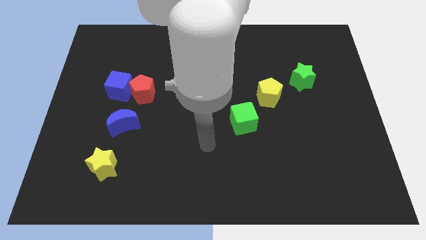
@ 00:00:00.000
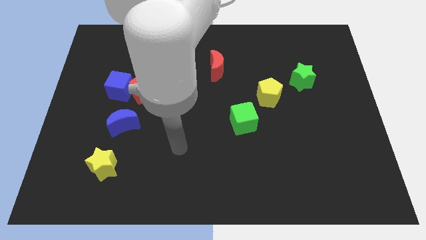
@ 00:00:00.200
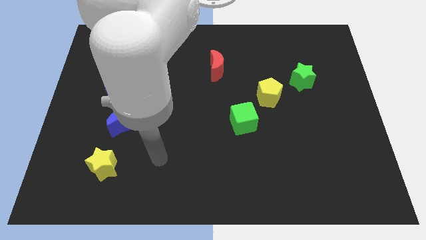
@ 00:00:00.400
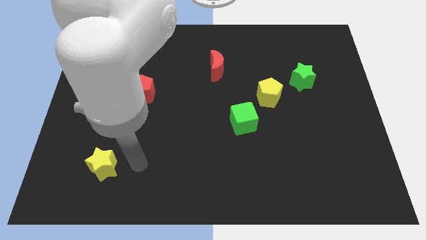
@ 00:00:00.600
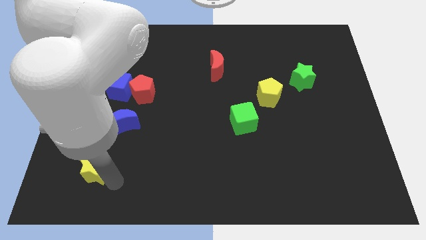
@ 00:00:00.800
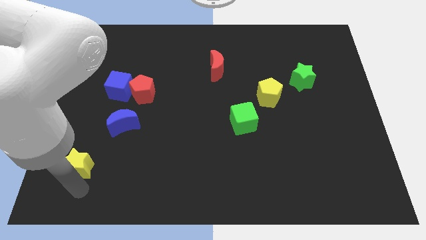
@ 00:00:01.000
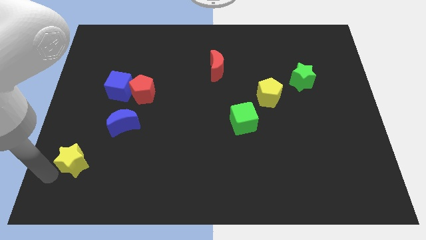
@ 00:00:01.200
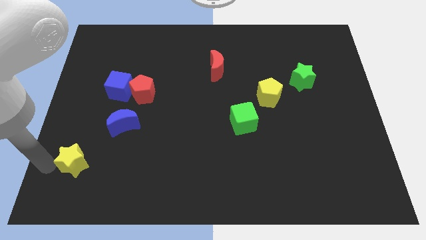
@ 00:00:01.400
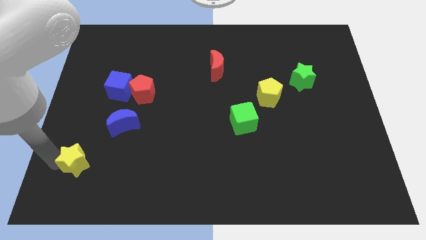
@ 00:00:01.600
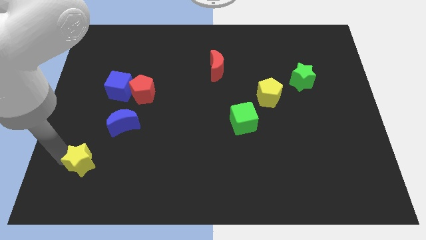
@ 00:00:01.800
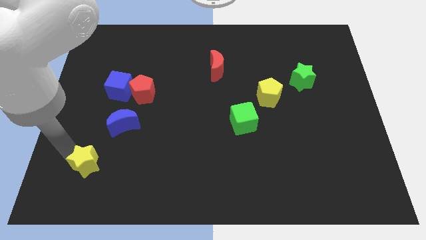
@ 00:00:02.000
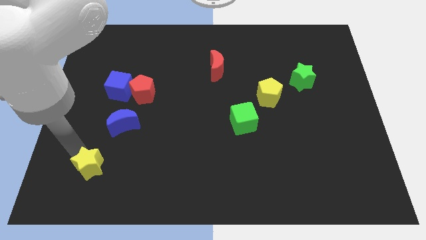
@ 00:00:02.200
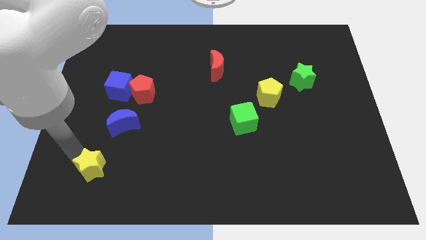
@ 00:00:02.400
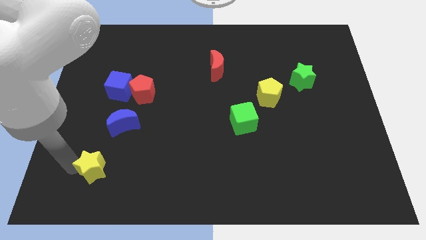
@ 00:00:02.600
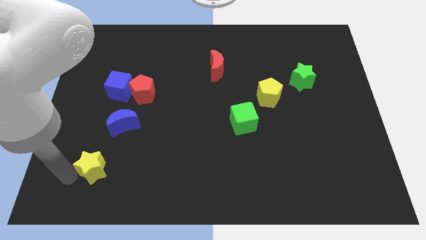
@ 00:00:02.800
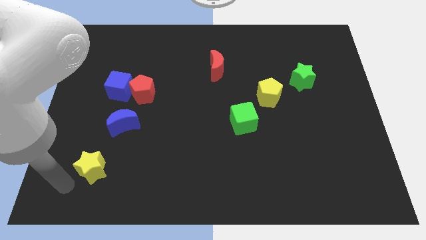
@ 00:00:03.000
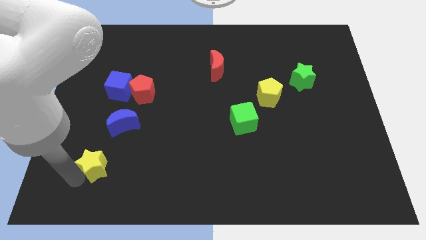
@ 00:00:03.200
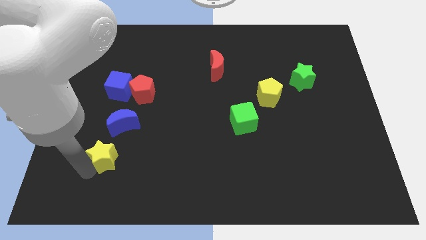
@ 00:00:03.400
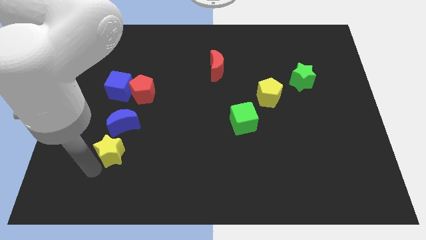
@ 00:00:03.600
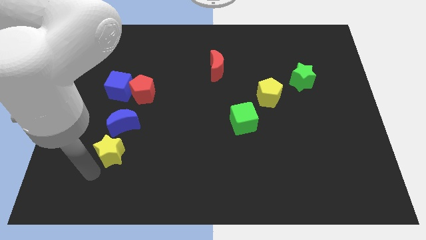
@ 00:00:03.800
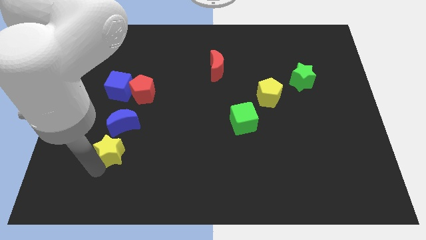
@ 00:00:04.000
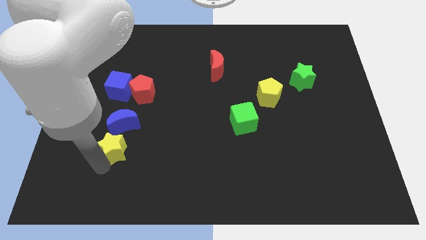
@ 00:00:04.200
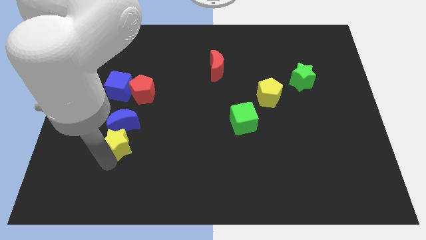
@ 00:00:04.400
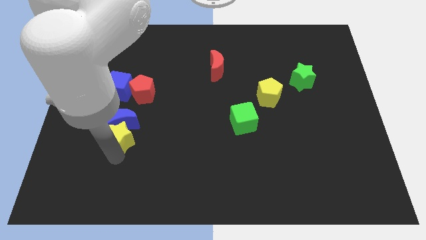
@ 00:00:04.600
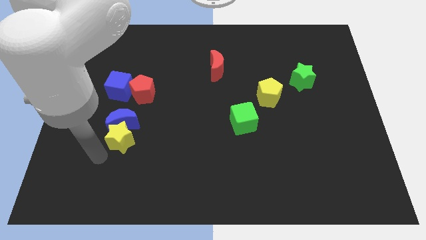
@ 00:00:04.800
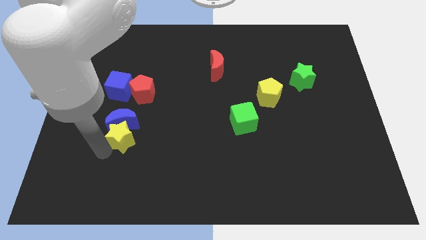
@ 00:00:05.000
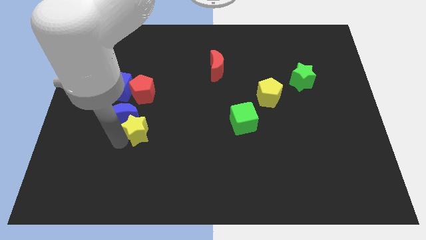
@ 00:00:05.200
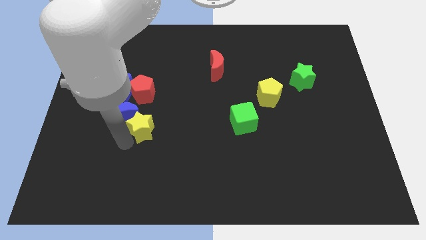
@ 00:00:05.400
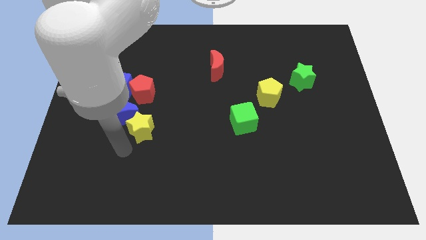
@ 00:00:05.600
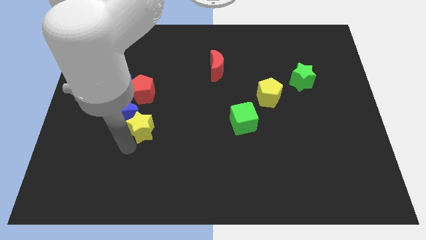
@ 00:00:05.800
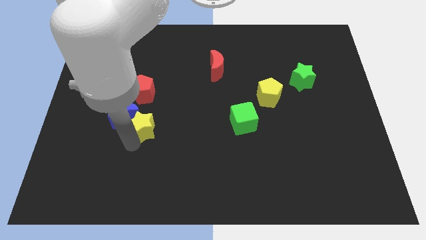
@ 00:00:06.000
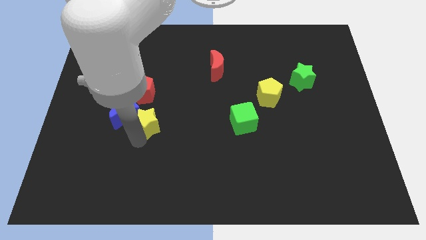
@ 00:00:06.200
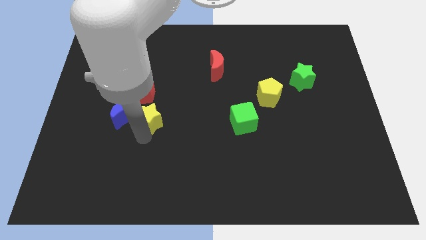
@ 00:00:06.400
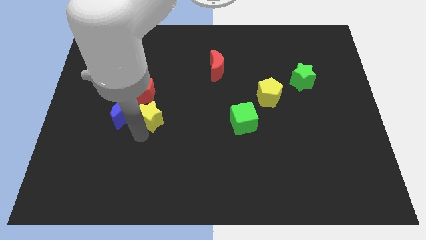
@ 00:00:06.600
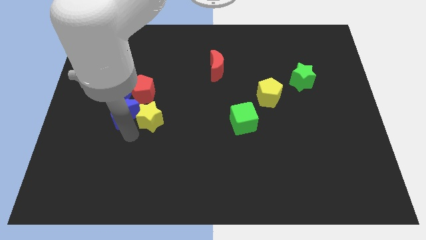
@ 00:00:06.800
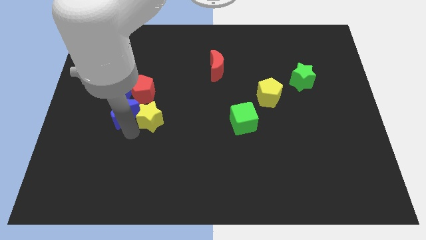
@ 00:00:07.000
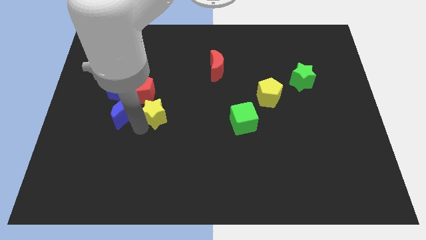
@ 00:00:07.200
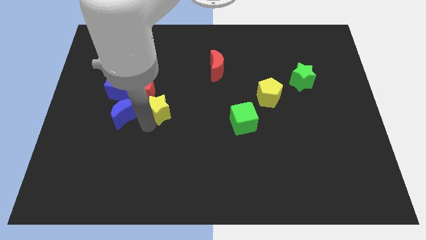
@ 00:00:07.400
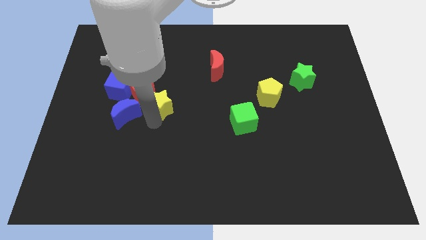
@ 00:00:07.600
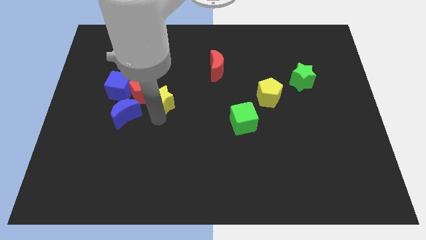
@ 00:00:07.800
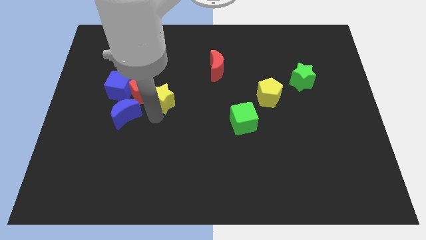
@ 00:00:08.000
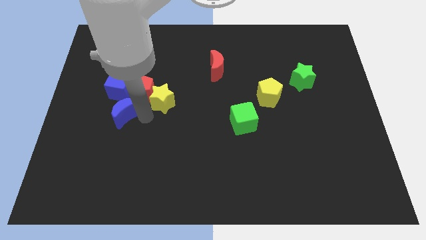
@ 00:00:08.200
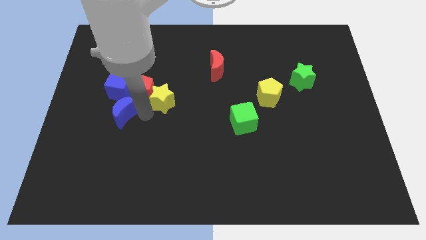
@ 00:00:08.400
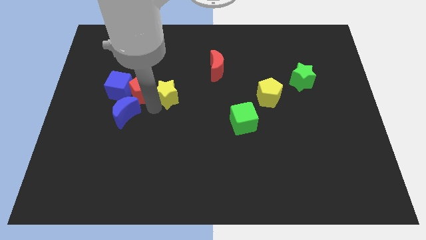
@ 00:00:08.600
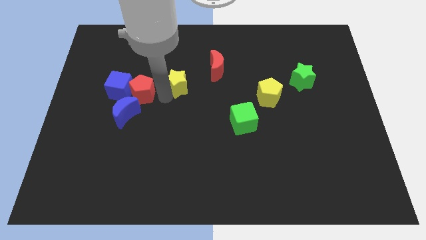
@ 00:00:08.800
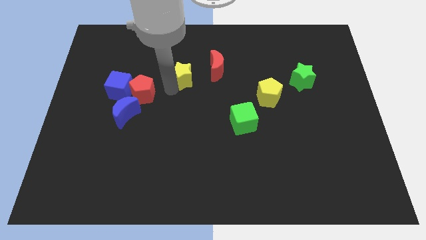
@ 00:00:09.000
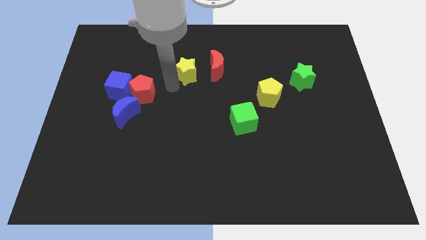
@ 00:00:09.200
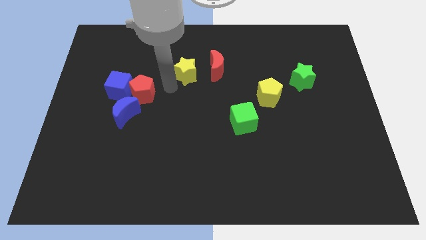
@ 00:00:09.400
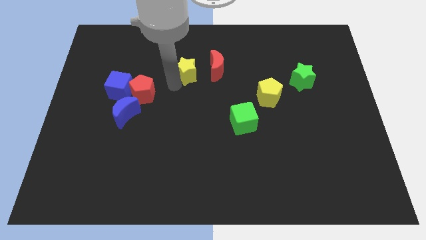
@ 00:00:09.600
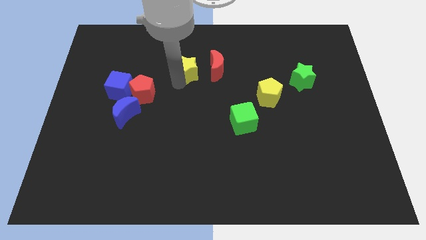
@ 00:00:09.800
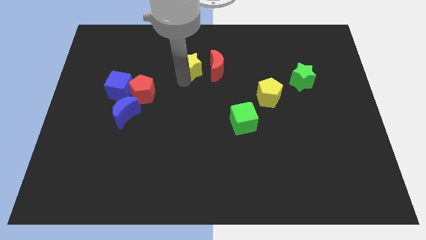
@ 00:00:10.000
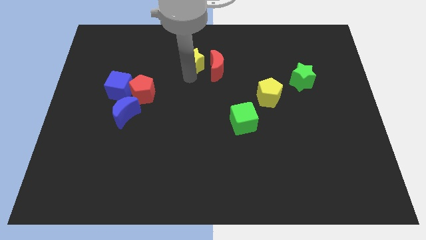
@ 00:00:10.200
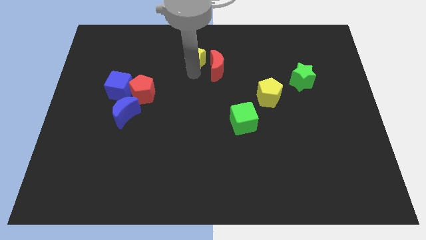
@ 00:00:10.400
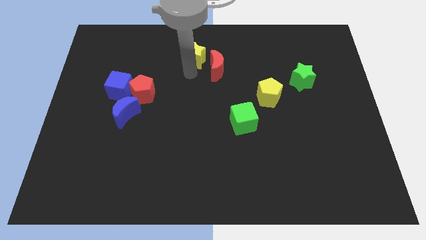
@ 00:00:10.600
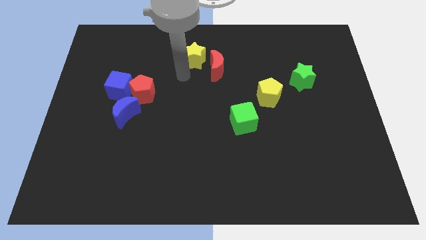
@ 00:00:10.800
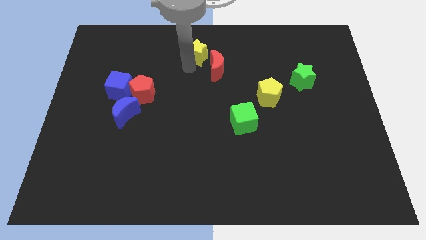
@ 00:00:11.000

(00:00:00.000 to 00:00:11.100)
slide the yellow star to the top side

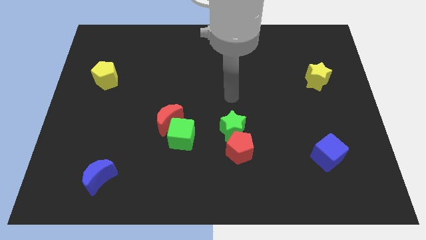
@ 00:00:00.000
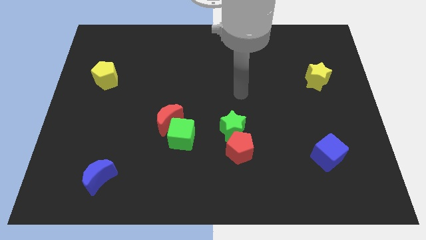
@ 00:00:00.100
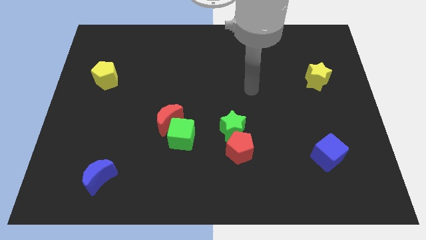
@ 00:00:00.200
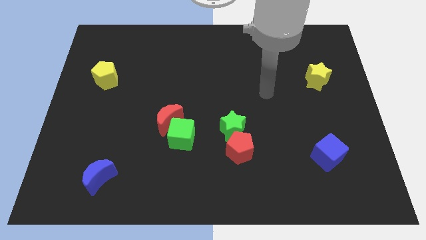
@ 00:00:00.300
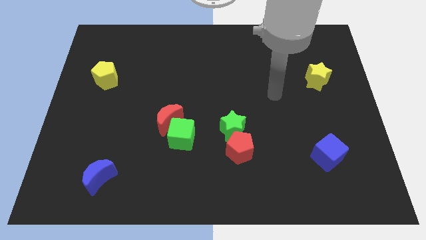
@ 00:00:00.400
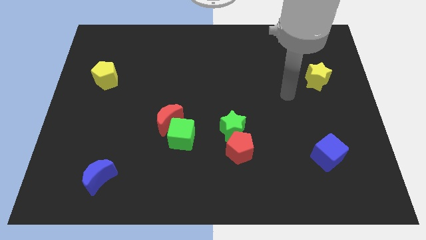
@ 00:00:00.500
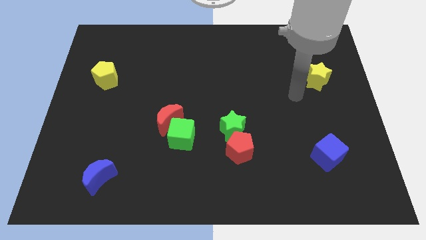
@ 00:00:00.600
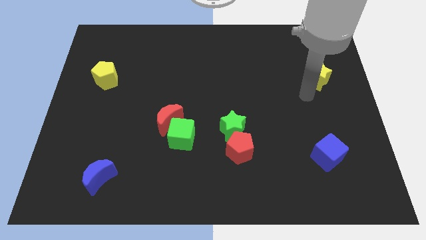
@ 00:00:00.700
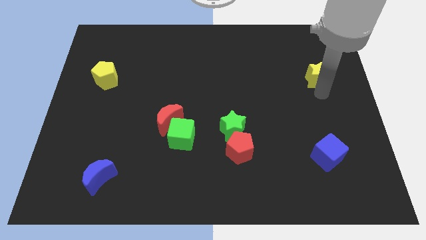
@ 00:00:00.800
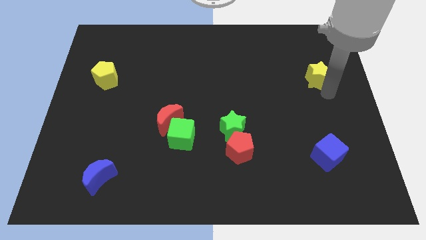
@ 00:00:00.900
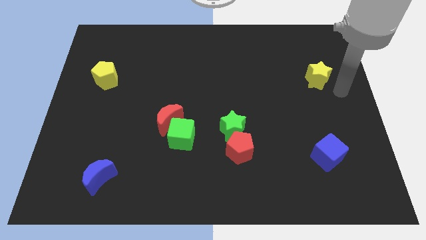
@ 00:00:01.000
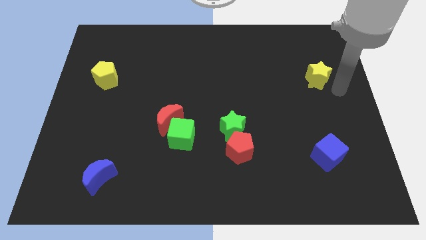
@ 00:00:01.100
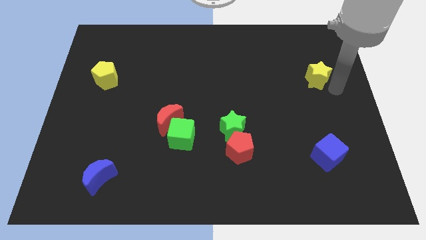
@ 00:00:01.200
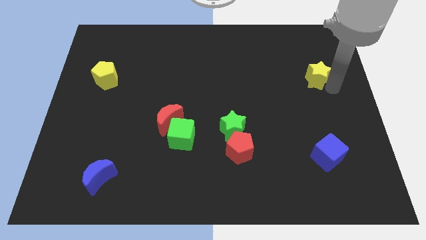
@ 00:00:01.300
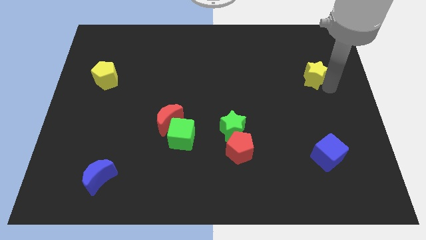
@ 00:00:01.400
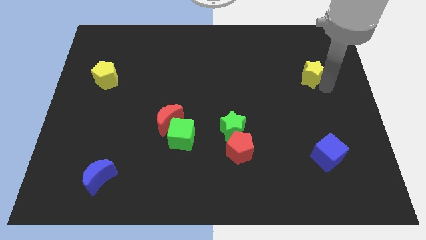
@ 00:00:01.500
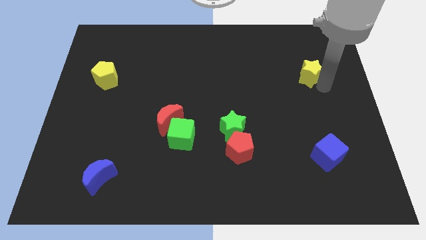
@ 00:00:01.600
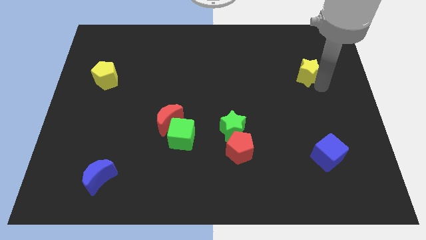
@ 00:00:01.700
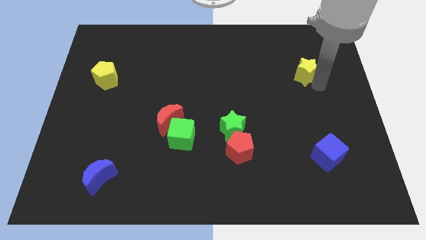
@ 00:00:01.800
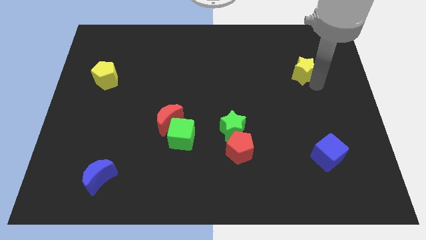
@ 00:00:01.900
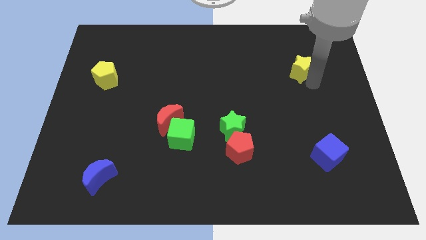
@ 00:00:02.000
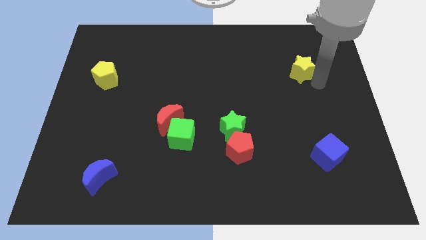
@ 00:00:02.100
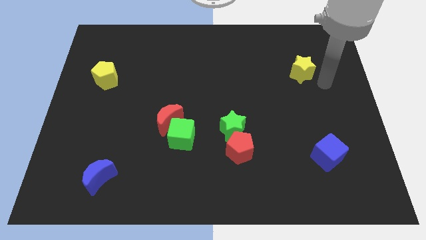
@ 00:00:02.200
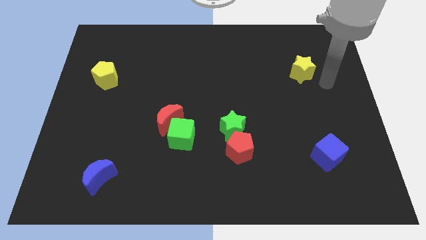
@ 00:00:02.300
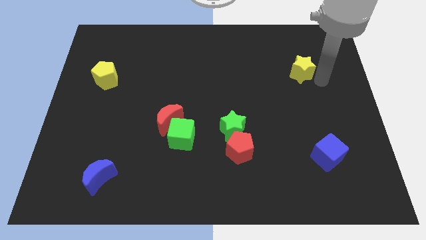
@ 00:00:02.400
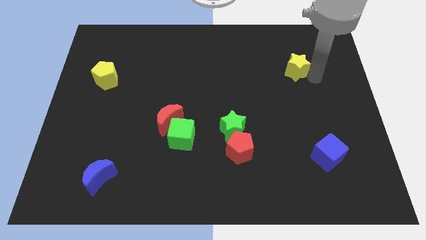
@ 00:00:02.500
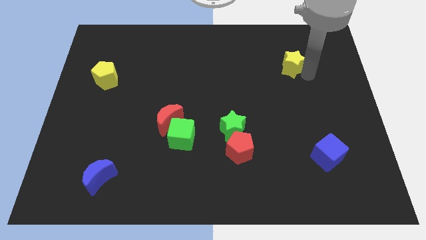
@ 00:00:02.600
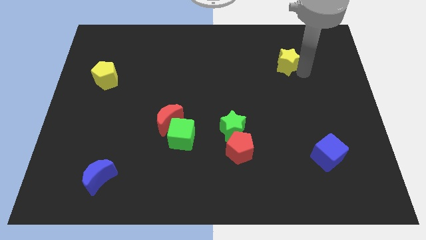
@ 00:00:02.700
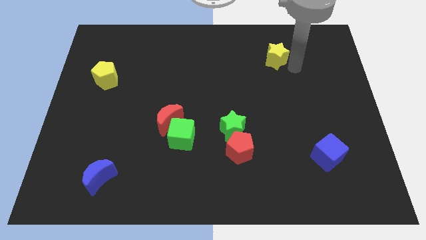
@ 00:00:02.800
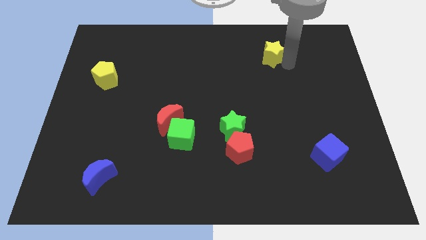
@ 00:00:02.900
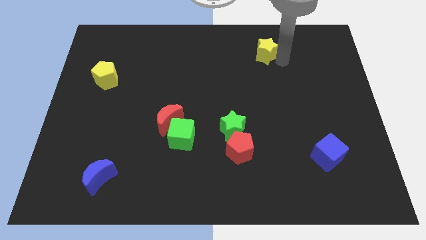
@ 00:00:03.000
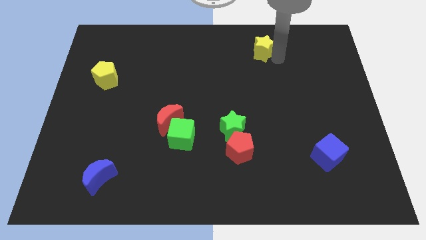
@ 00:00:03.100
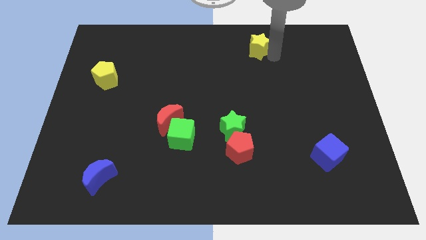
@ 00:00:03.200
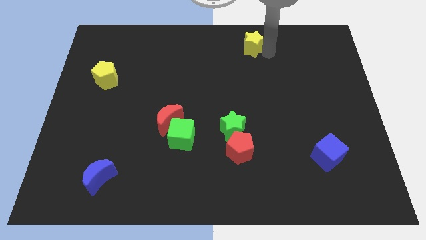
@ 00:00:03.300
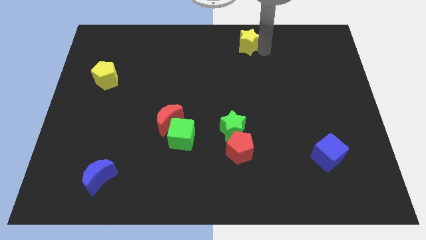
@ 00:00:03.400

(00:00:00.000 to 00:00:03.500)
move the yellow star to the towards your base
